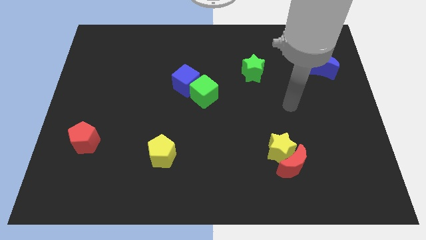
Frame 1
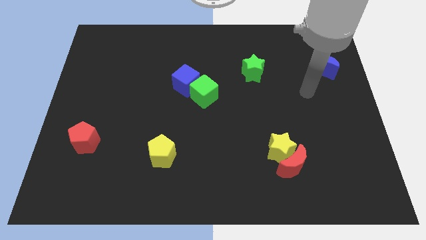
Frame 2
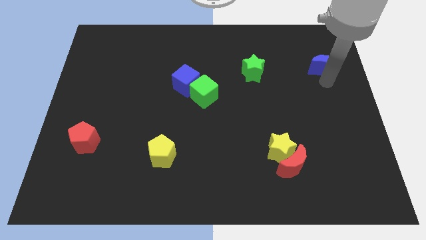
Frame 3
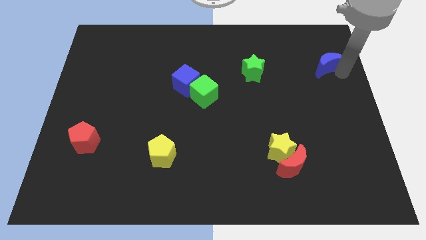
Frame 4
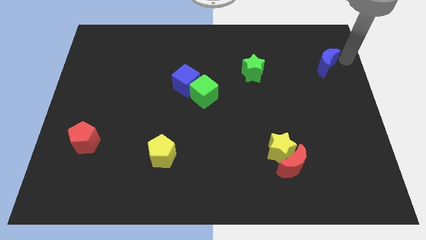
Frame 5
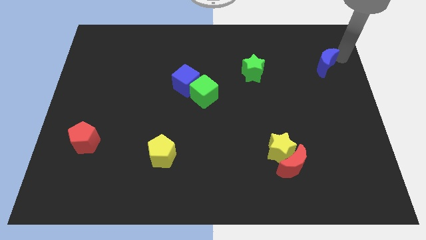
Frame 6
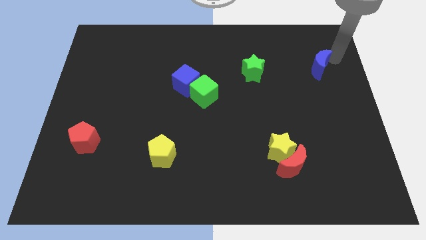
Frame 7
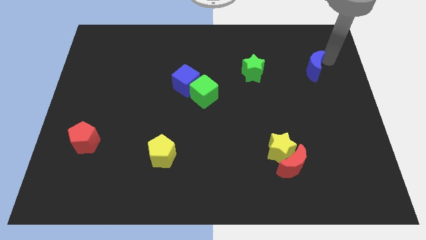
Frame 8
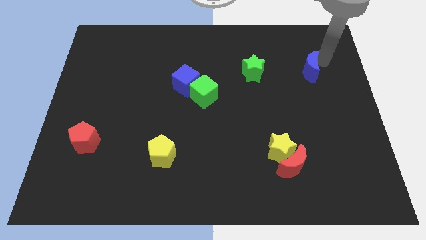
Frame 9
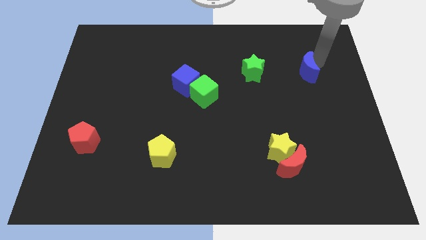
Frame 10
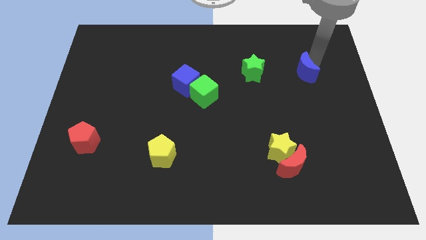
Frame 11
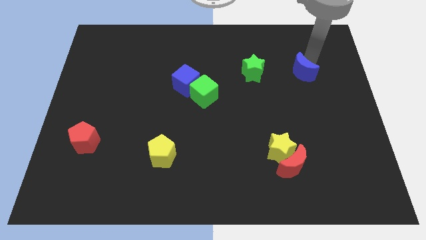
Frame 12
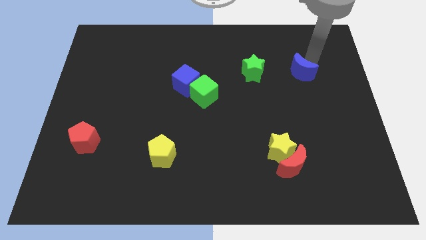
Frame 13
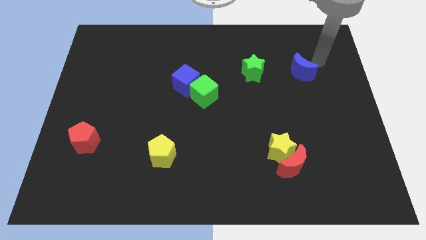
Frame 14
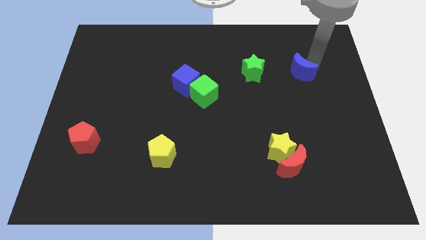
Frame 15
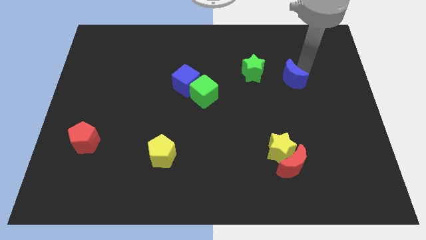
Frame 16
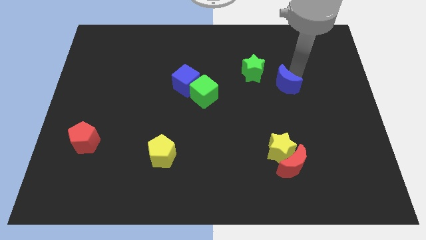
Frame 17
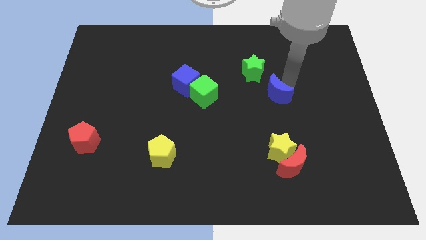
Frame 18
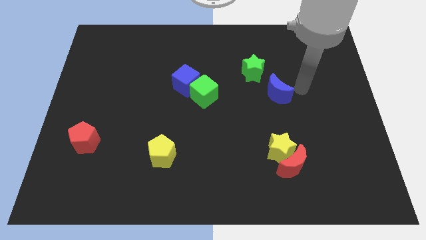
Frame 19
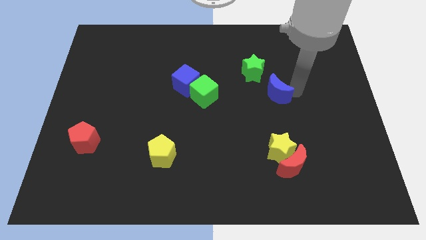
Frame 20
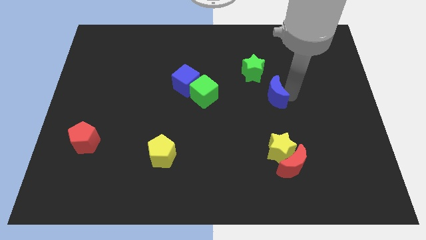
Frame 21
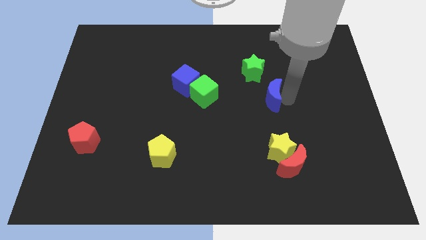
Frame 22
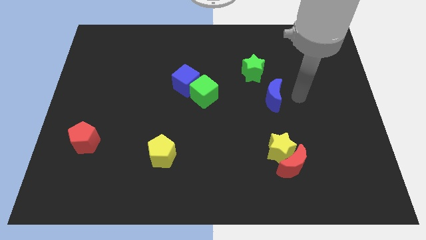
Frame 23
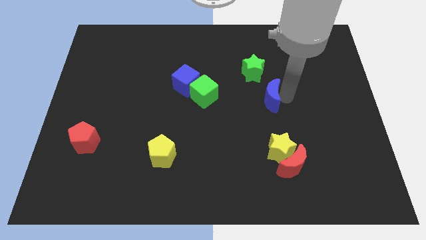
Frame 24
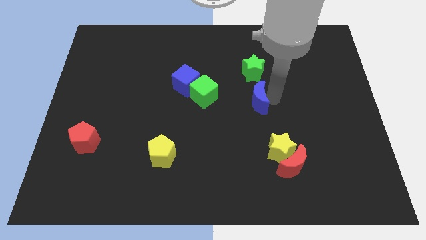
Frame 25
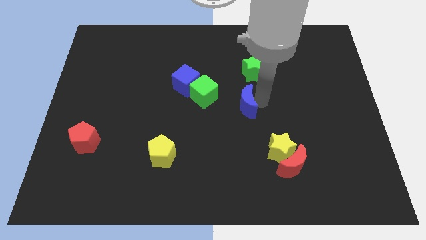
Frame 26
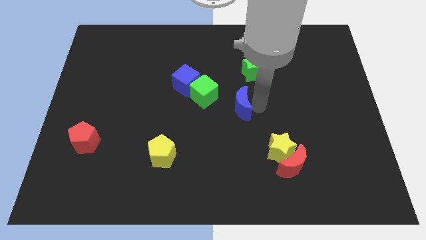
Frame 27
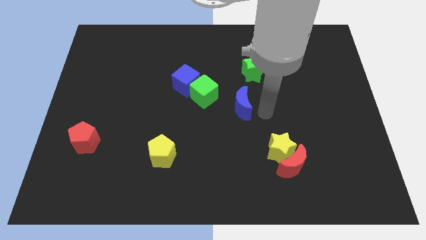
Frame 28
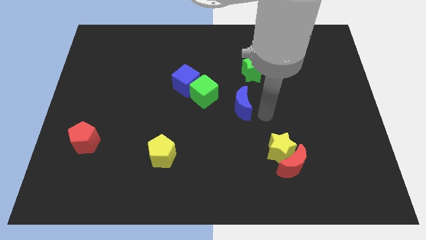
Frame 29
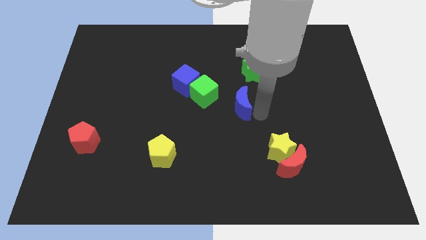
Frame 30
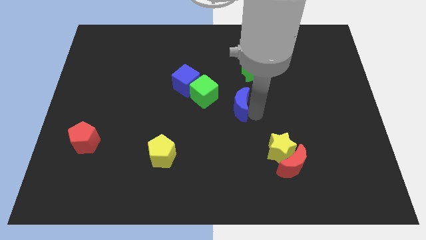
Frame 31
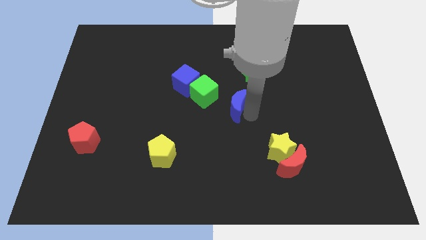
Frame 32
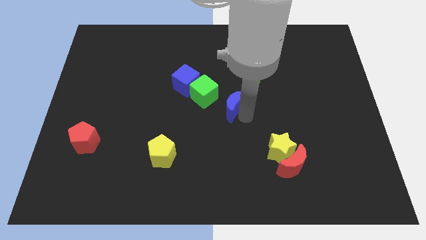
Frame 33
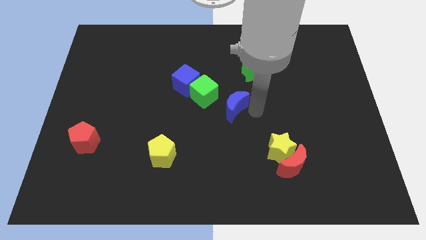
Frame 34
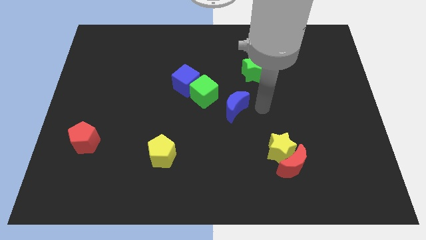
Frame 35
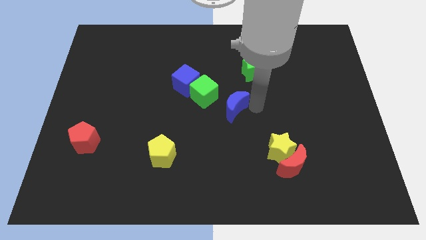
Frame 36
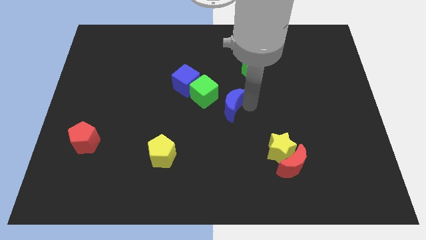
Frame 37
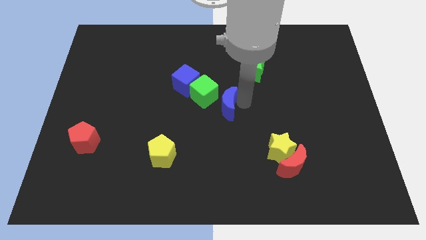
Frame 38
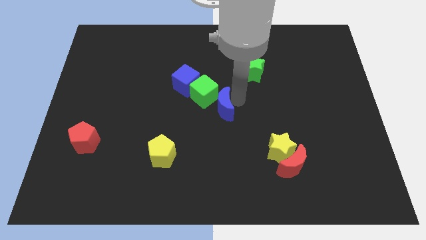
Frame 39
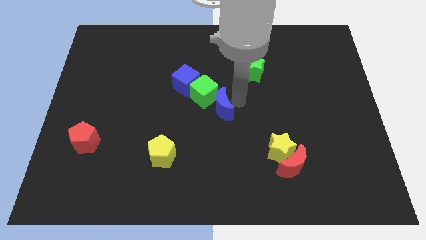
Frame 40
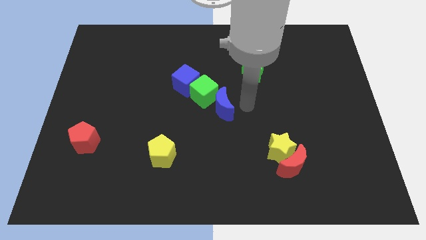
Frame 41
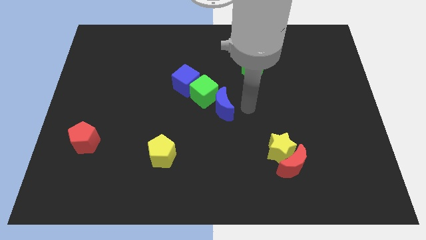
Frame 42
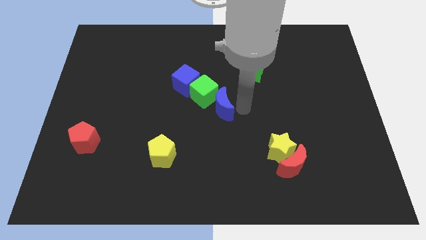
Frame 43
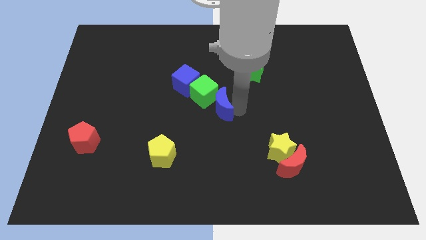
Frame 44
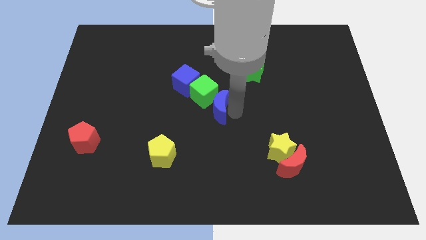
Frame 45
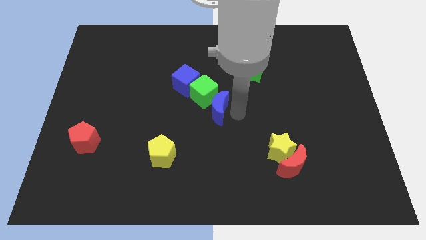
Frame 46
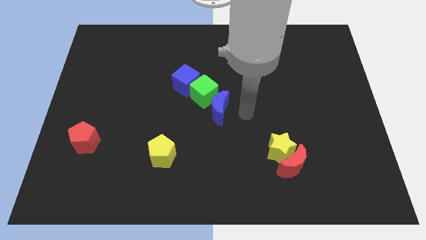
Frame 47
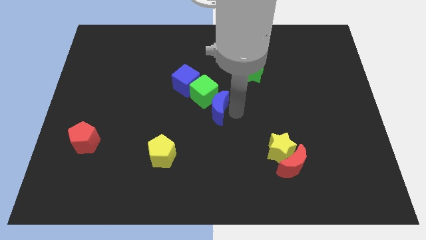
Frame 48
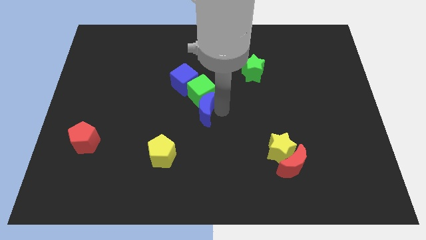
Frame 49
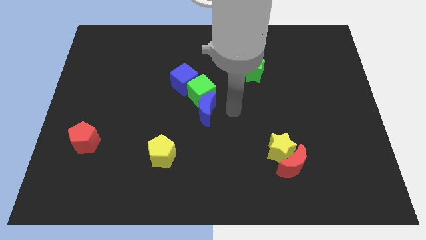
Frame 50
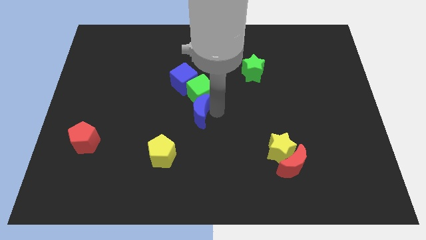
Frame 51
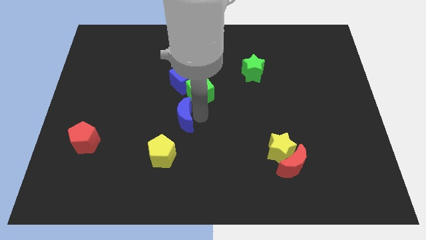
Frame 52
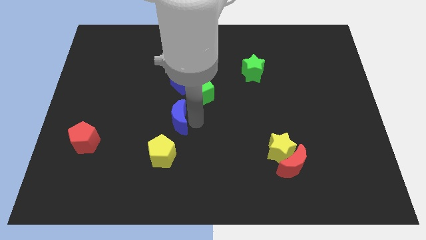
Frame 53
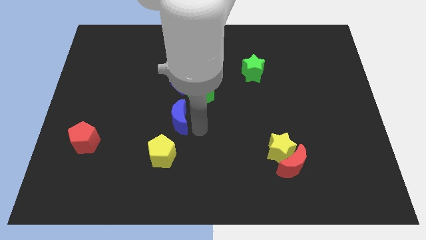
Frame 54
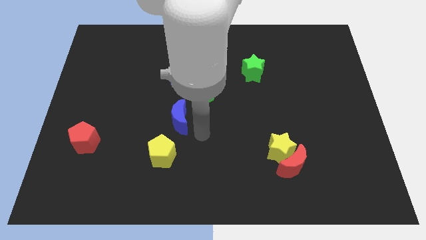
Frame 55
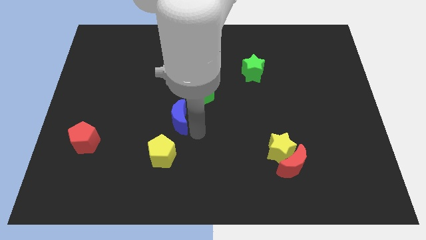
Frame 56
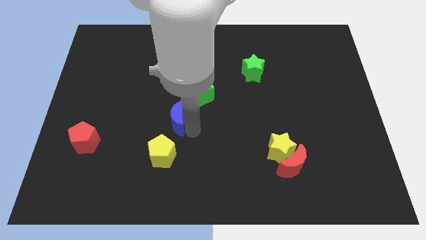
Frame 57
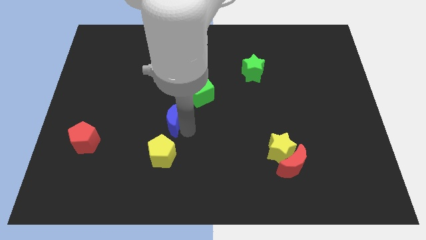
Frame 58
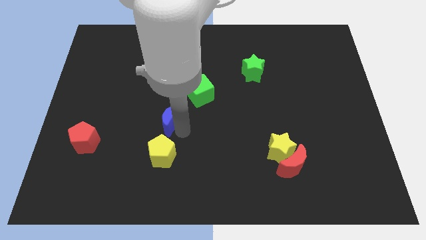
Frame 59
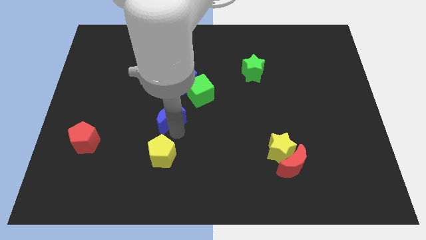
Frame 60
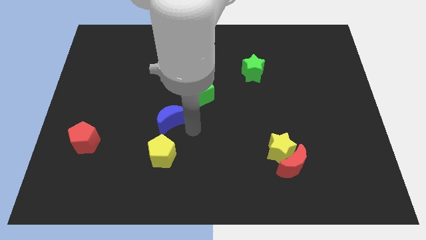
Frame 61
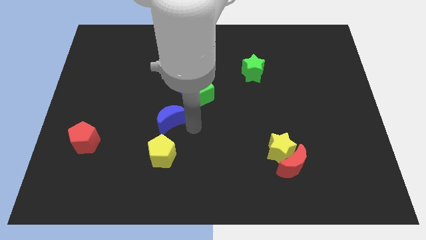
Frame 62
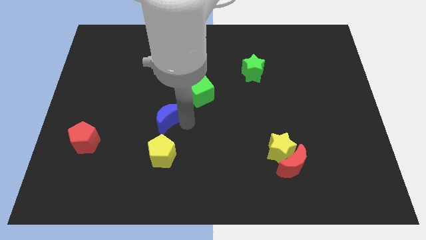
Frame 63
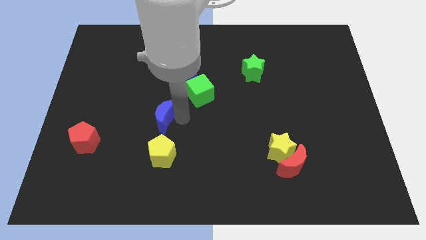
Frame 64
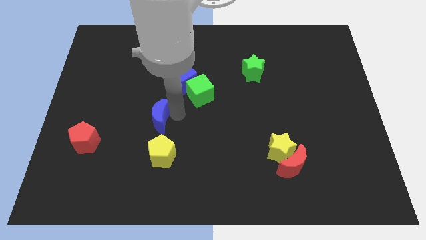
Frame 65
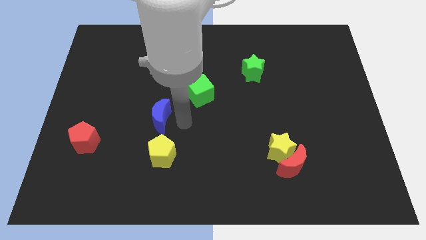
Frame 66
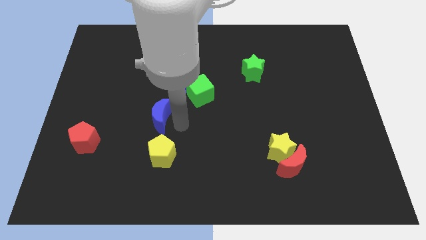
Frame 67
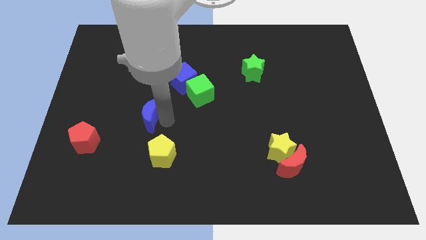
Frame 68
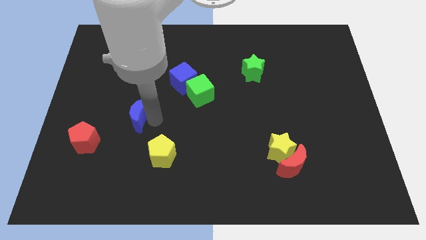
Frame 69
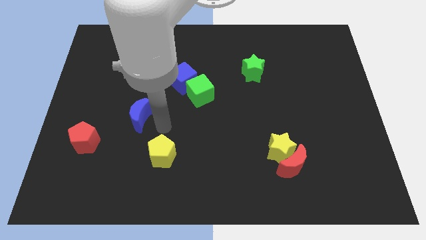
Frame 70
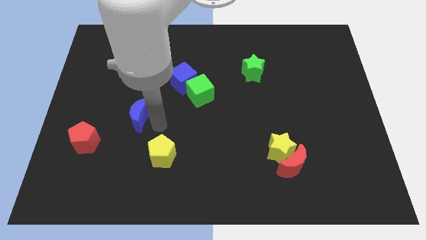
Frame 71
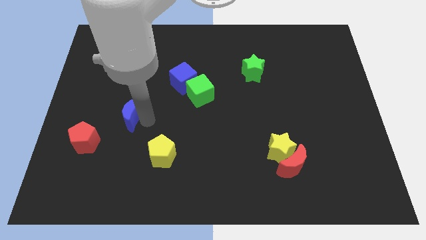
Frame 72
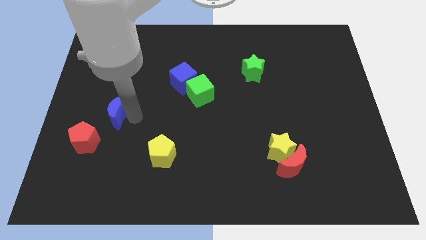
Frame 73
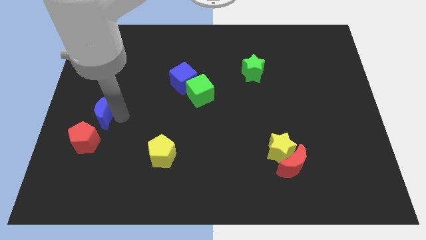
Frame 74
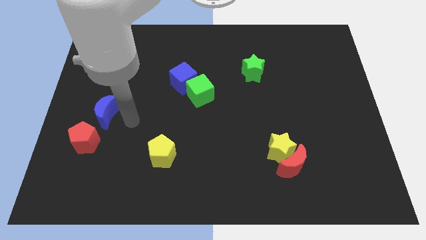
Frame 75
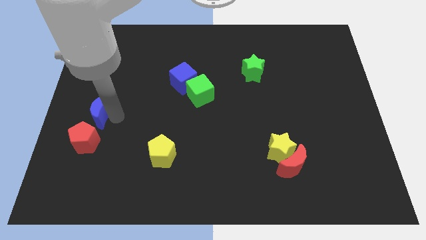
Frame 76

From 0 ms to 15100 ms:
push the blue moon to the left side of the board
